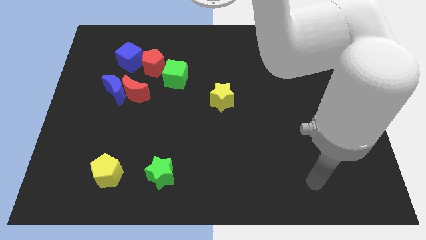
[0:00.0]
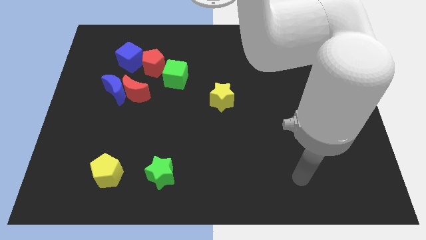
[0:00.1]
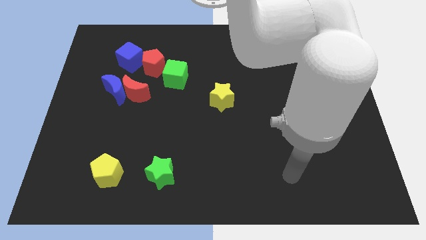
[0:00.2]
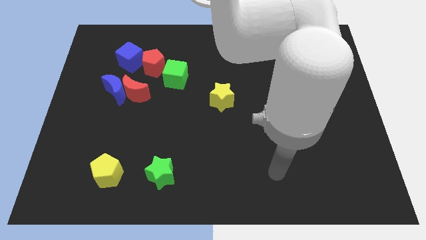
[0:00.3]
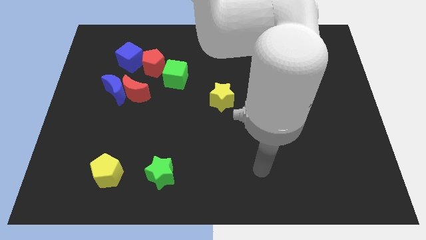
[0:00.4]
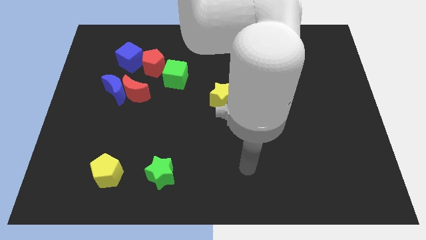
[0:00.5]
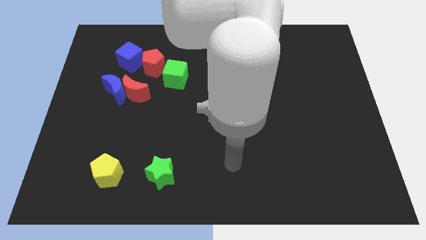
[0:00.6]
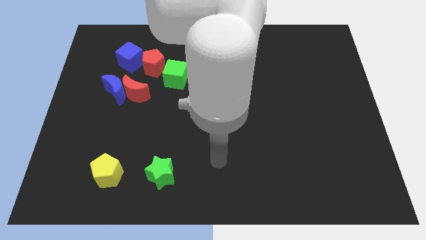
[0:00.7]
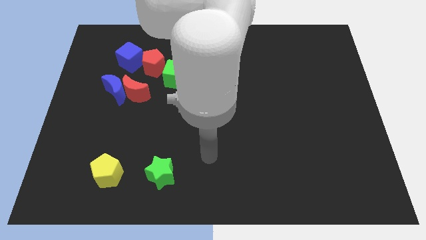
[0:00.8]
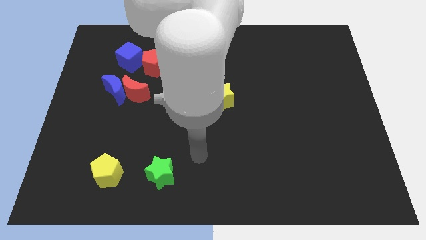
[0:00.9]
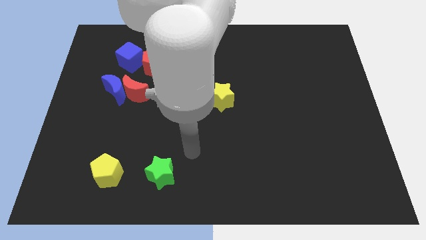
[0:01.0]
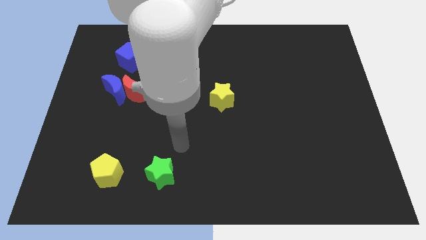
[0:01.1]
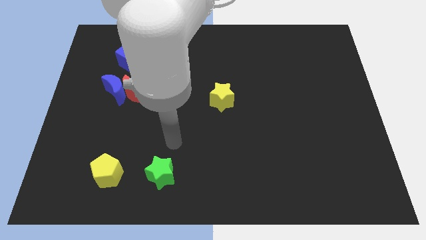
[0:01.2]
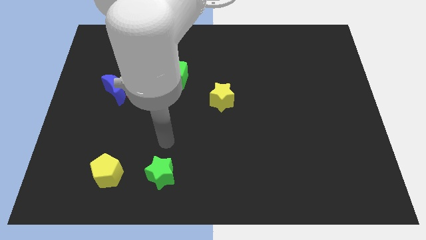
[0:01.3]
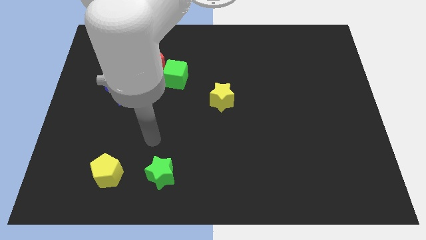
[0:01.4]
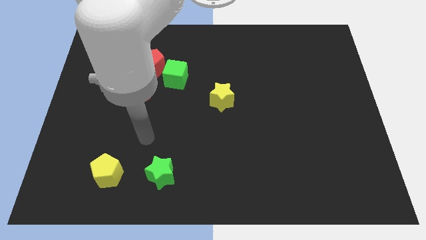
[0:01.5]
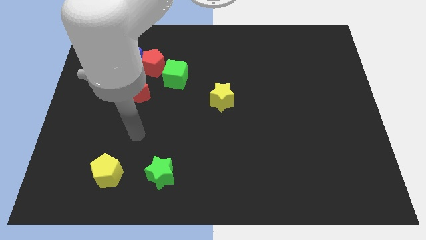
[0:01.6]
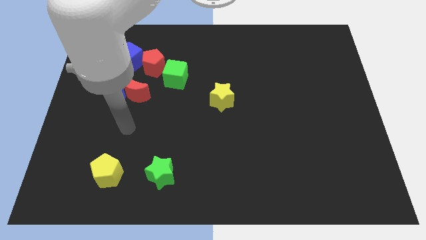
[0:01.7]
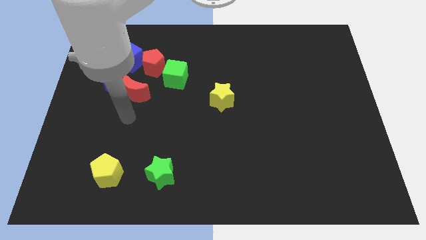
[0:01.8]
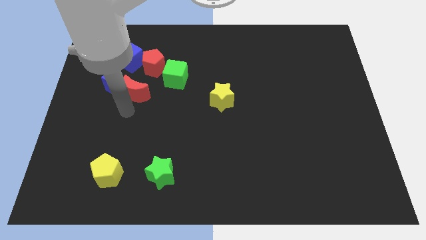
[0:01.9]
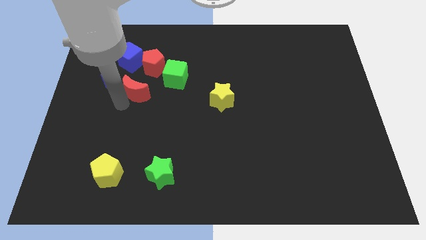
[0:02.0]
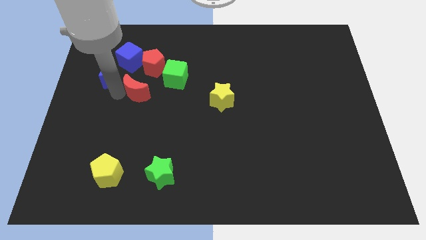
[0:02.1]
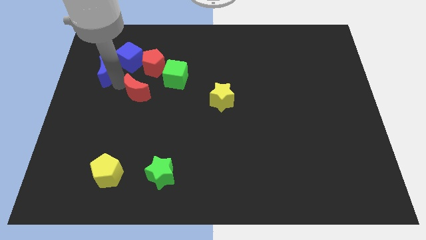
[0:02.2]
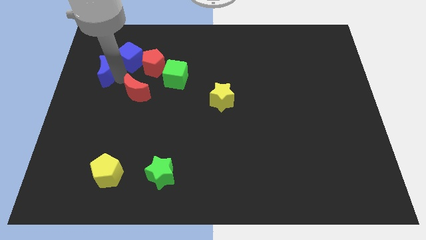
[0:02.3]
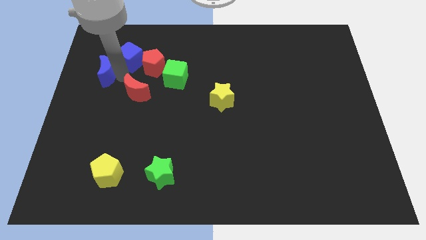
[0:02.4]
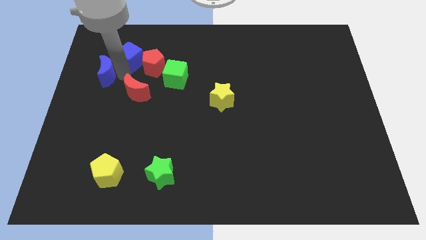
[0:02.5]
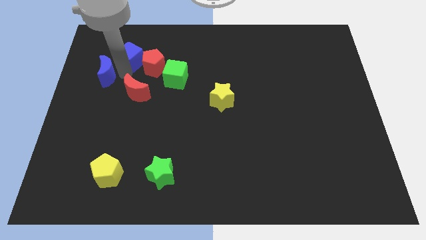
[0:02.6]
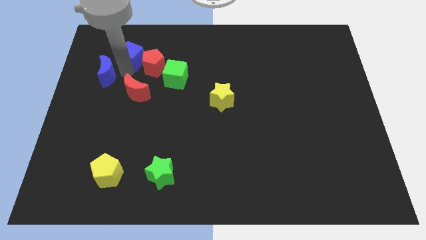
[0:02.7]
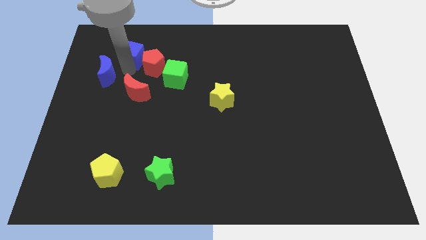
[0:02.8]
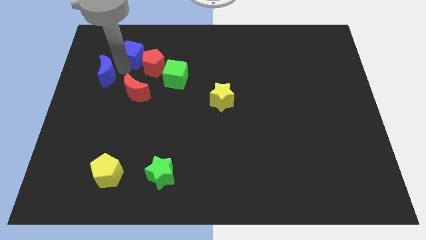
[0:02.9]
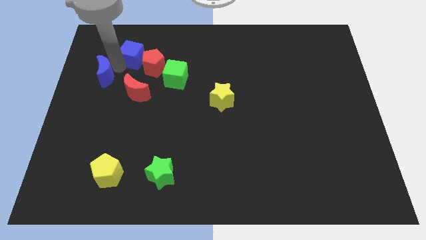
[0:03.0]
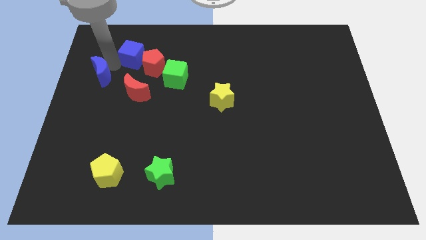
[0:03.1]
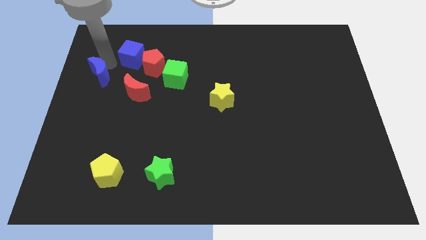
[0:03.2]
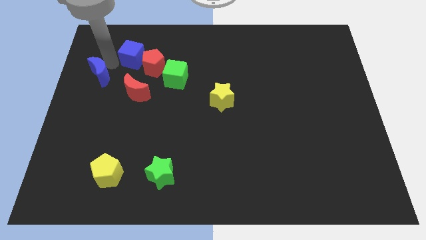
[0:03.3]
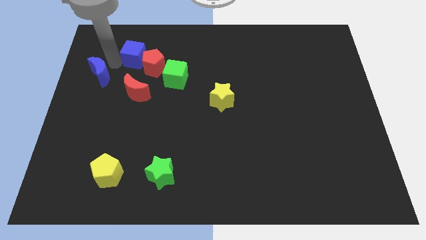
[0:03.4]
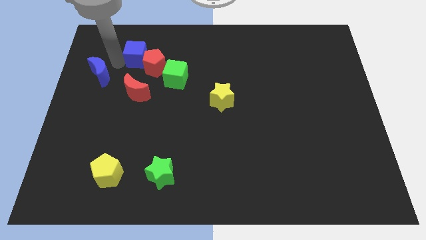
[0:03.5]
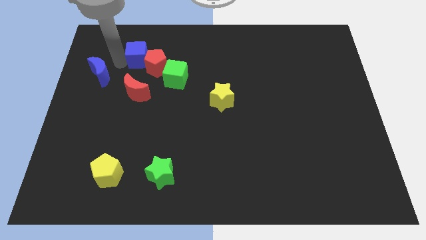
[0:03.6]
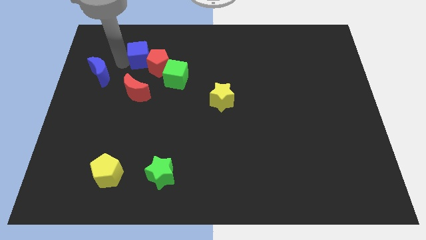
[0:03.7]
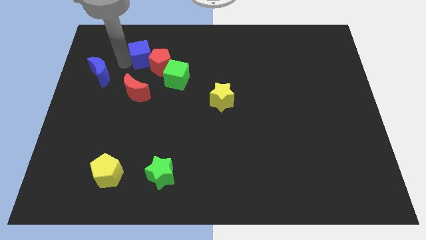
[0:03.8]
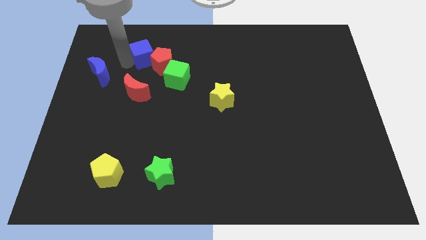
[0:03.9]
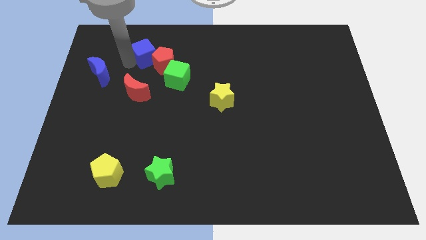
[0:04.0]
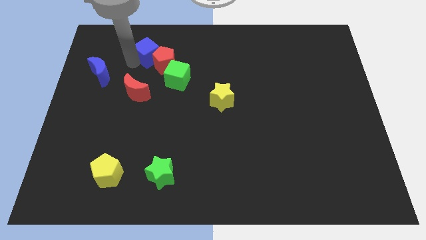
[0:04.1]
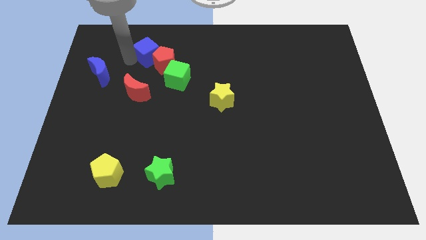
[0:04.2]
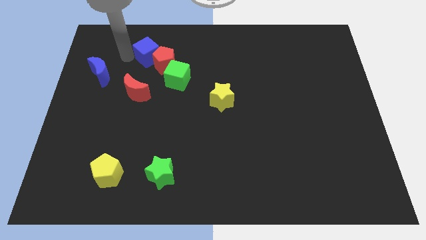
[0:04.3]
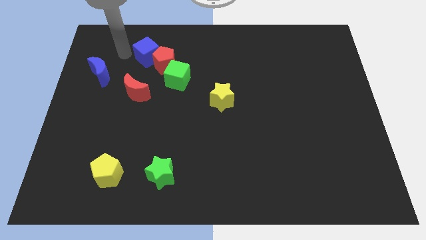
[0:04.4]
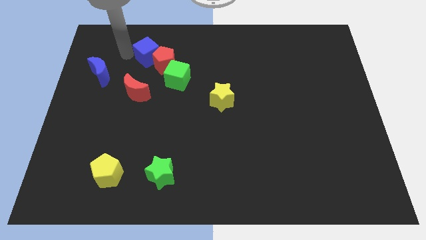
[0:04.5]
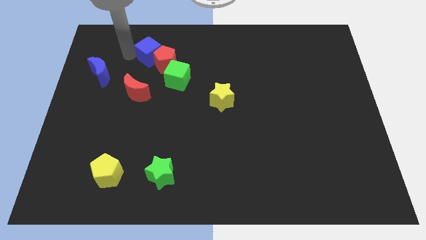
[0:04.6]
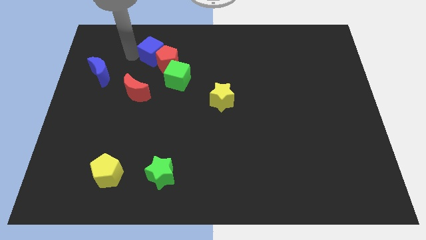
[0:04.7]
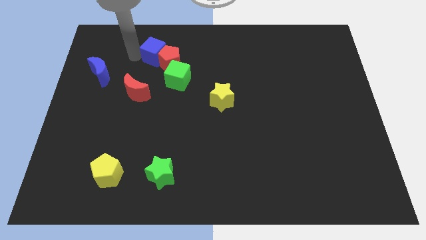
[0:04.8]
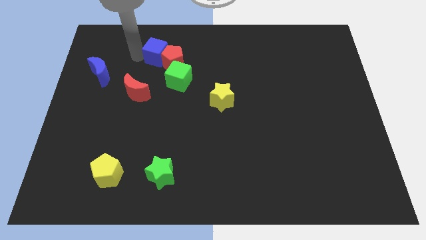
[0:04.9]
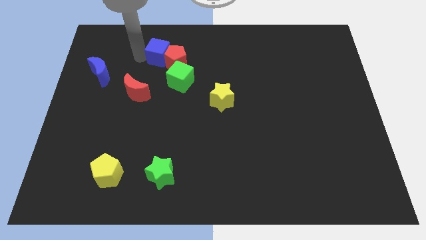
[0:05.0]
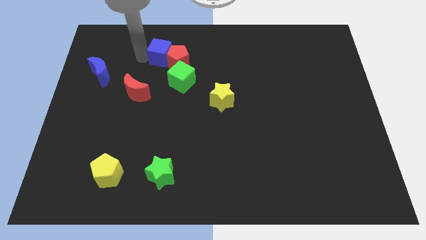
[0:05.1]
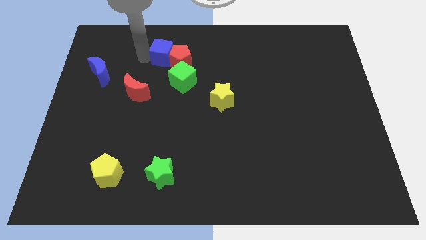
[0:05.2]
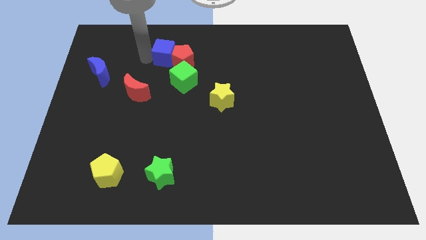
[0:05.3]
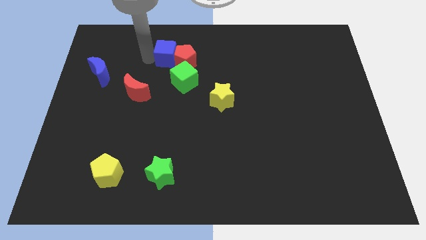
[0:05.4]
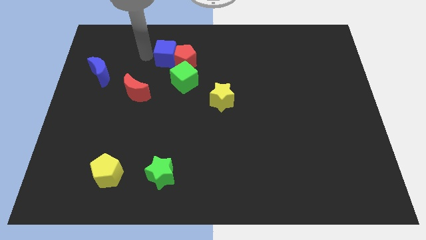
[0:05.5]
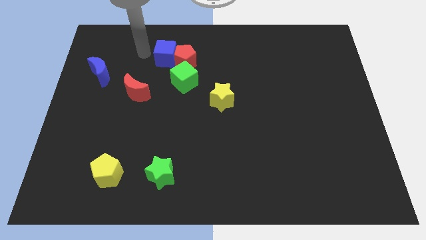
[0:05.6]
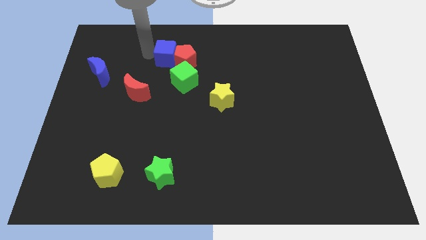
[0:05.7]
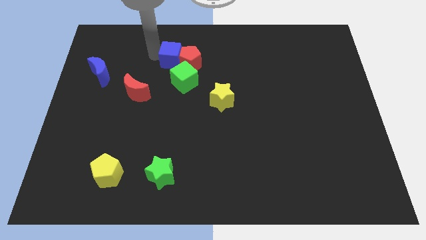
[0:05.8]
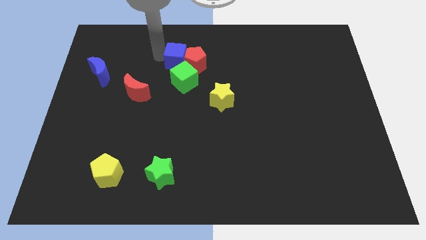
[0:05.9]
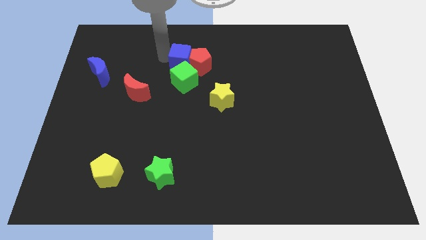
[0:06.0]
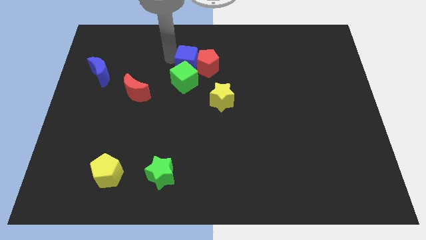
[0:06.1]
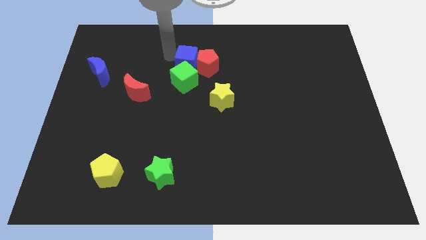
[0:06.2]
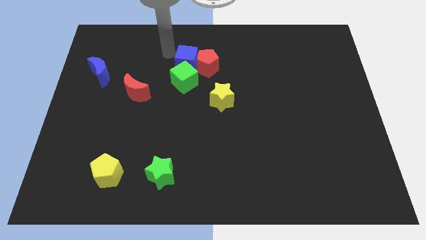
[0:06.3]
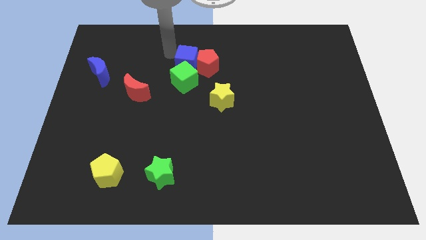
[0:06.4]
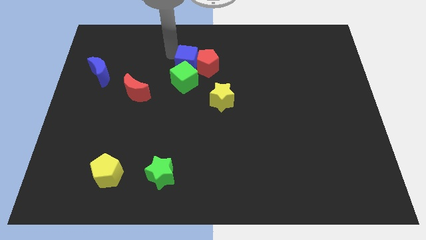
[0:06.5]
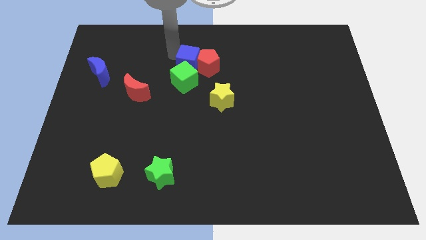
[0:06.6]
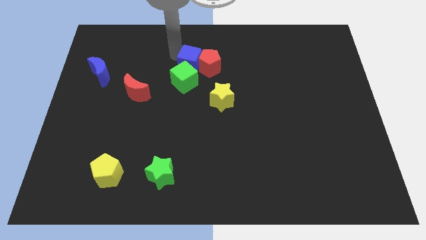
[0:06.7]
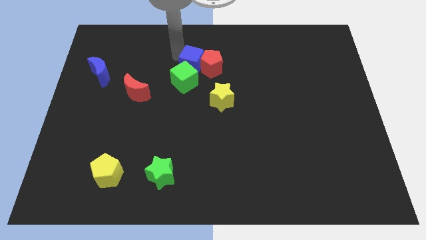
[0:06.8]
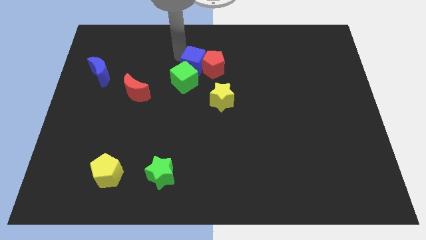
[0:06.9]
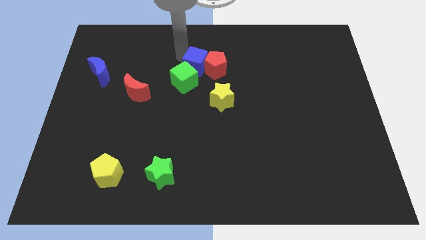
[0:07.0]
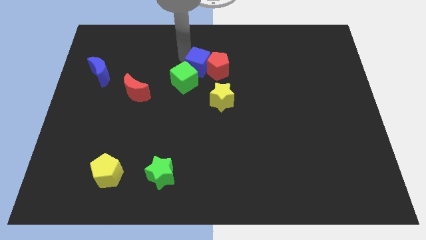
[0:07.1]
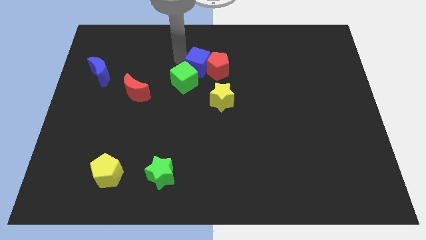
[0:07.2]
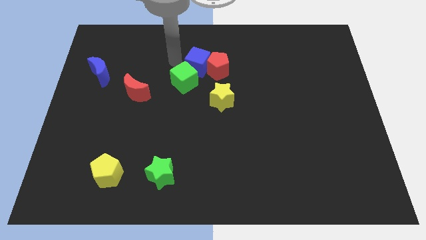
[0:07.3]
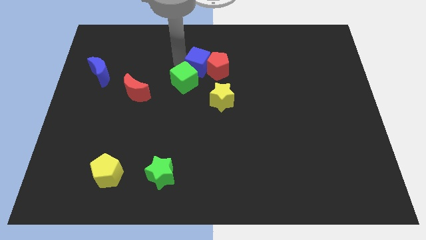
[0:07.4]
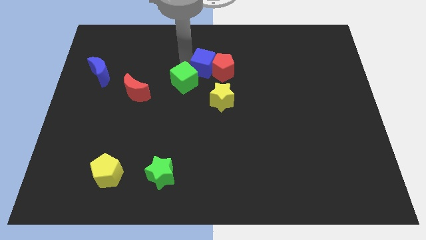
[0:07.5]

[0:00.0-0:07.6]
put the blue cube above the yellow star
